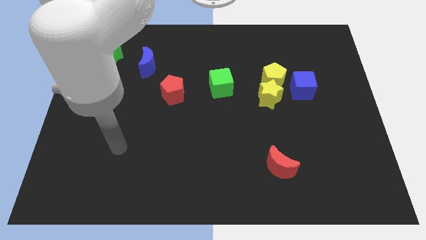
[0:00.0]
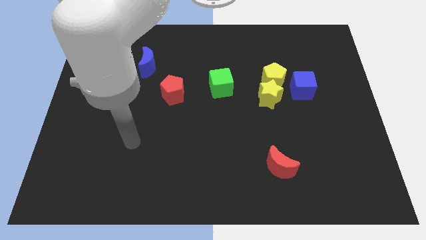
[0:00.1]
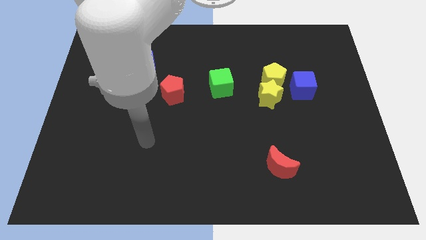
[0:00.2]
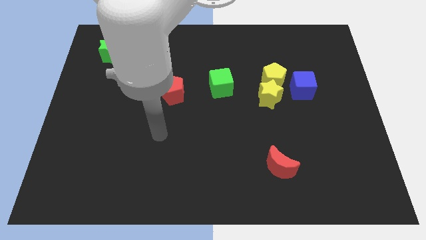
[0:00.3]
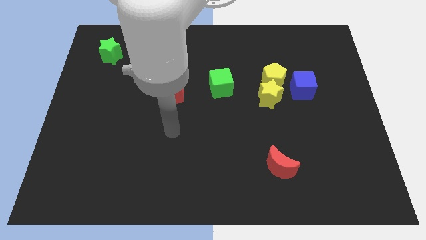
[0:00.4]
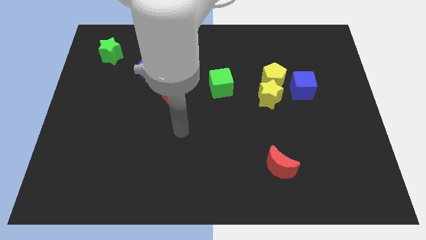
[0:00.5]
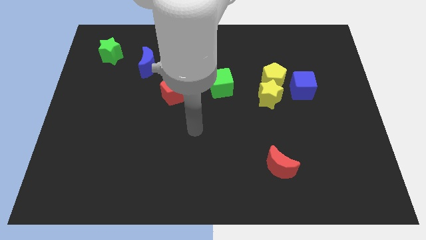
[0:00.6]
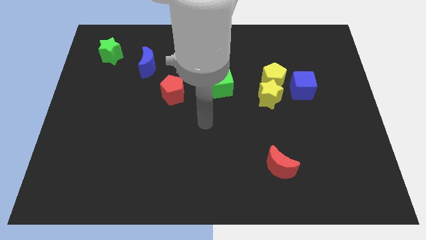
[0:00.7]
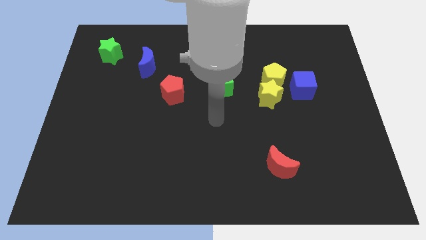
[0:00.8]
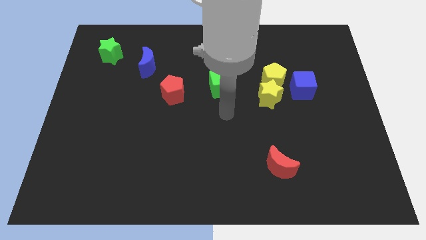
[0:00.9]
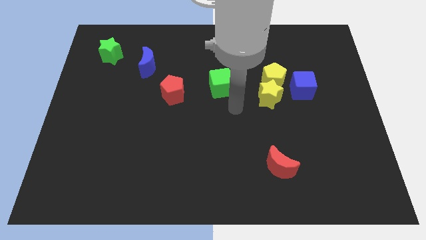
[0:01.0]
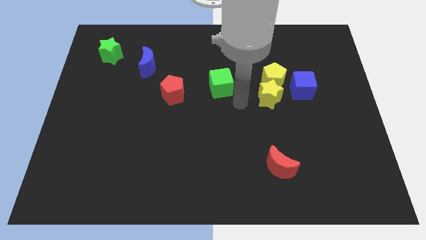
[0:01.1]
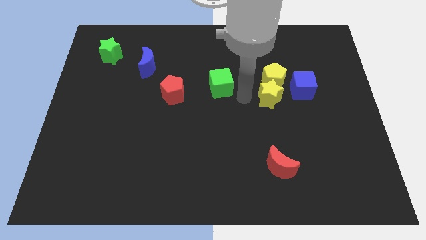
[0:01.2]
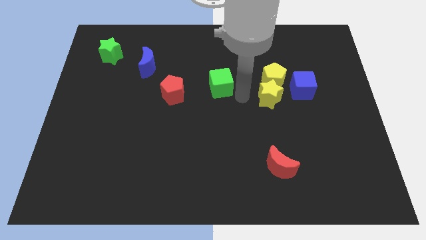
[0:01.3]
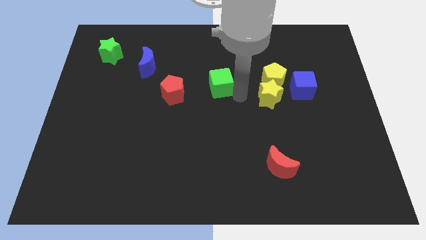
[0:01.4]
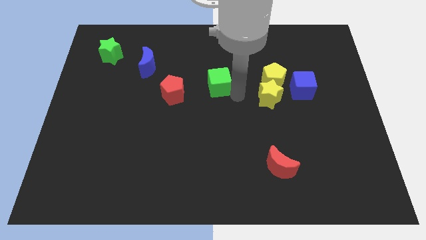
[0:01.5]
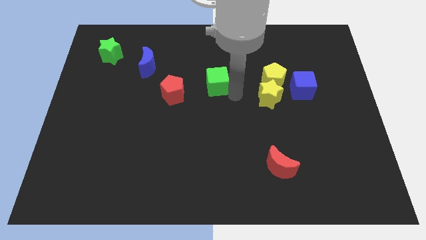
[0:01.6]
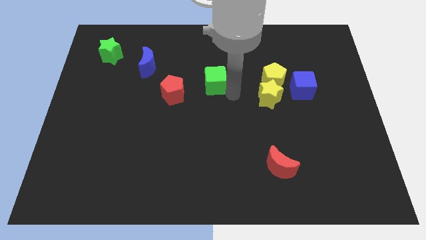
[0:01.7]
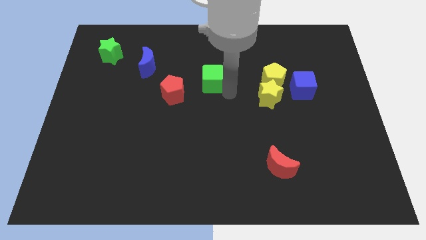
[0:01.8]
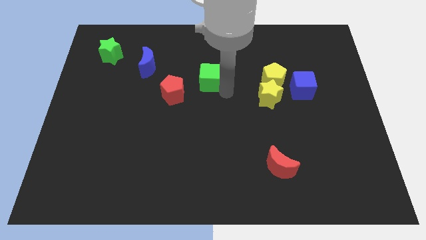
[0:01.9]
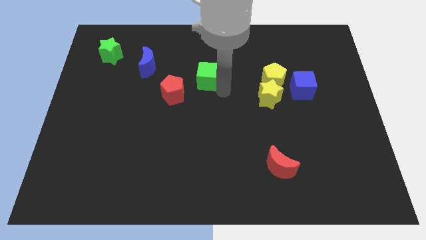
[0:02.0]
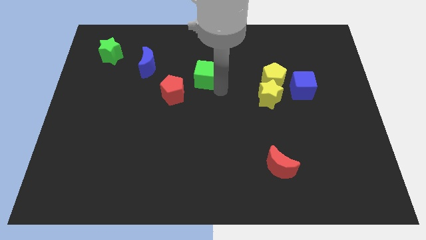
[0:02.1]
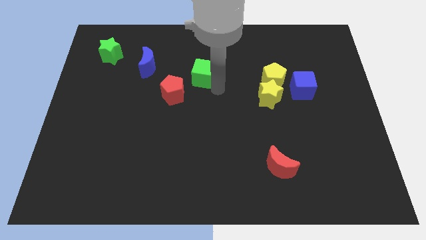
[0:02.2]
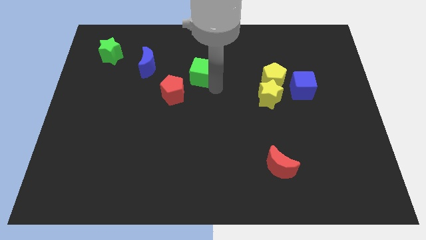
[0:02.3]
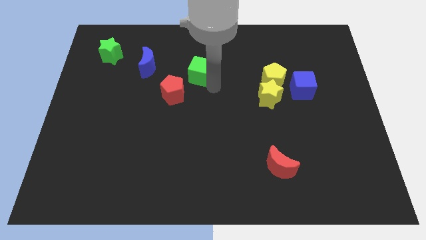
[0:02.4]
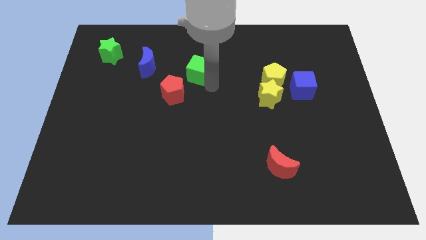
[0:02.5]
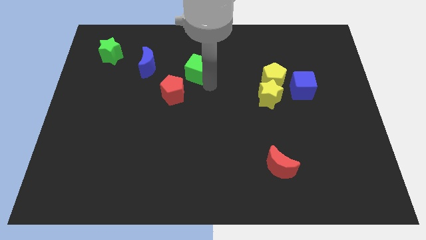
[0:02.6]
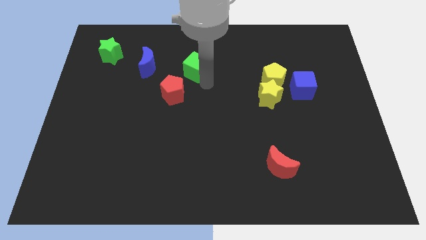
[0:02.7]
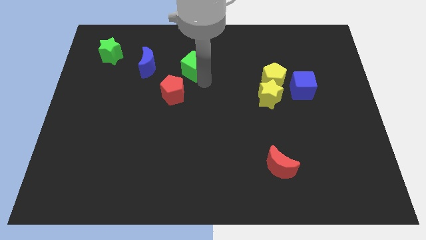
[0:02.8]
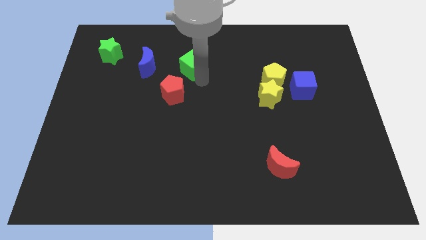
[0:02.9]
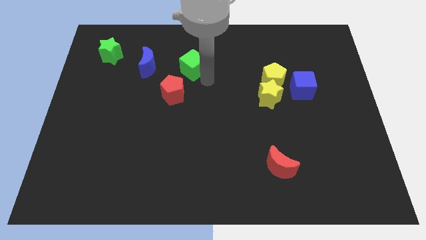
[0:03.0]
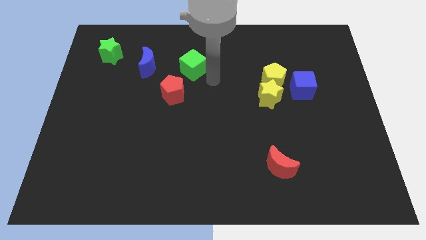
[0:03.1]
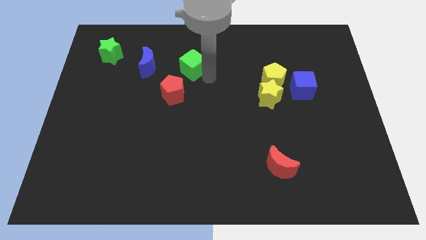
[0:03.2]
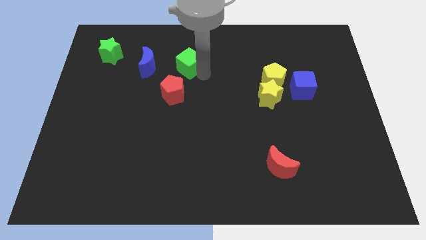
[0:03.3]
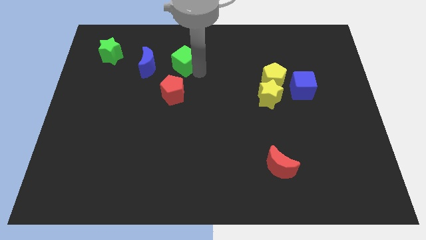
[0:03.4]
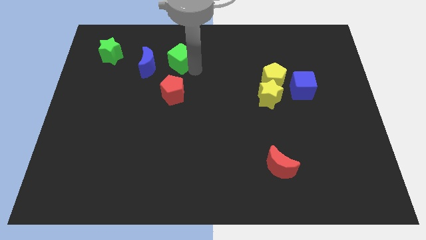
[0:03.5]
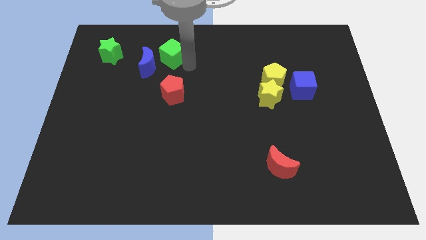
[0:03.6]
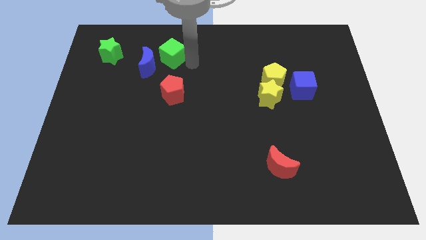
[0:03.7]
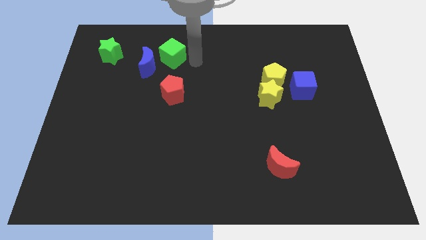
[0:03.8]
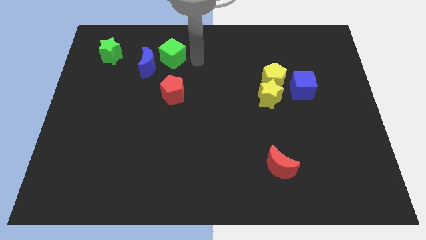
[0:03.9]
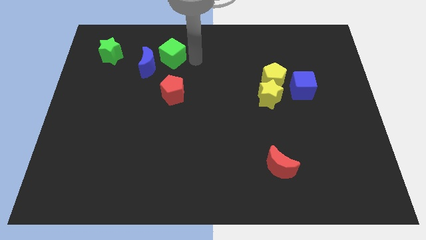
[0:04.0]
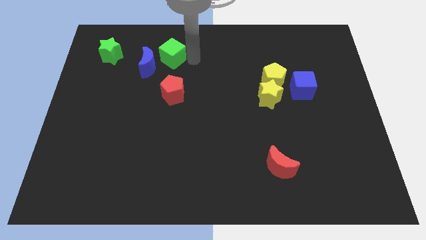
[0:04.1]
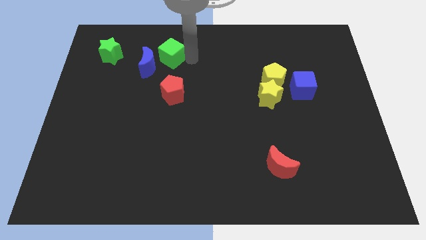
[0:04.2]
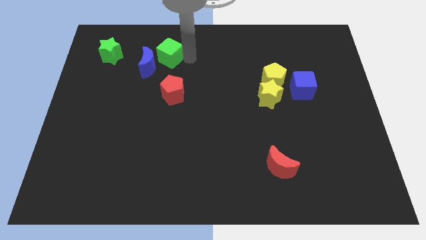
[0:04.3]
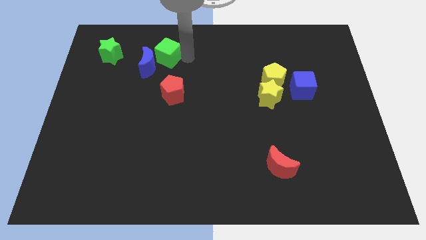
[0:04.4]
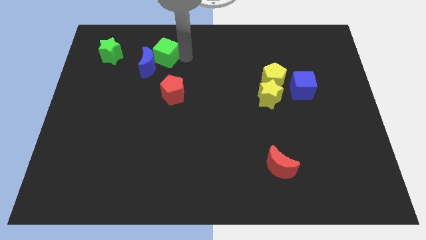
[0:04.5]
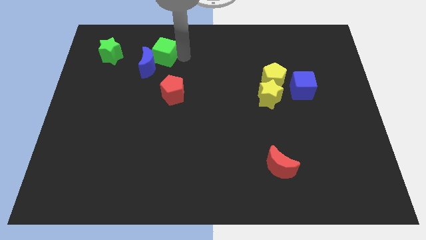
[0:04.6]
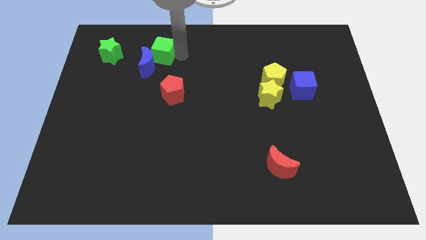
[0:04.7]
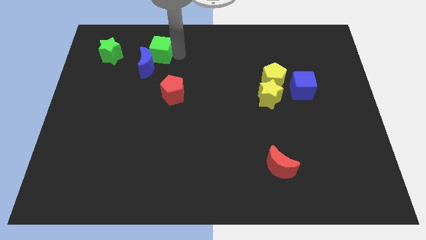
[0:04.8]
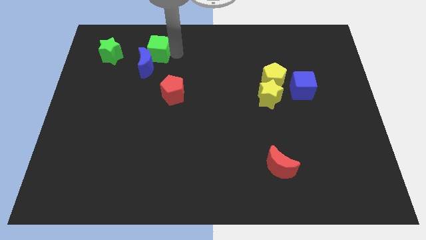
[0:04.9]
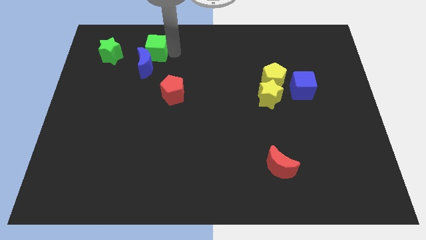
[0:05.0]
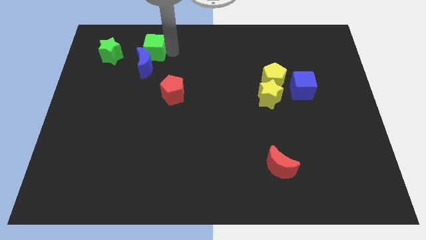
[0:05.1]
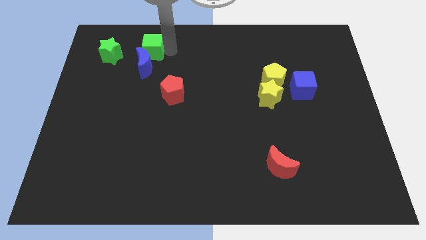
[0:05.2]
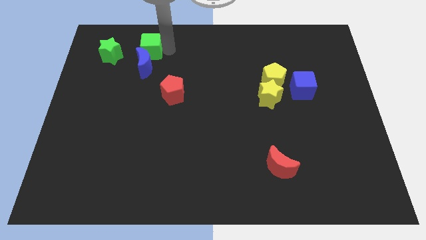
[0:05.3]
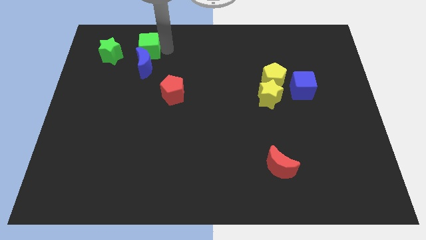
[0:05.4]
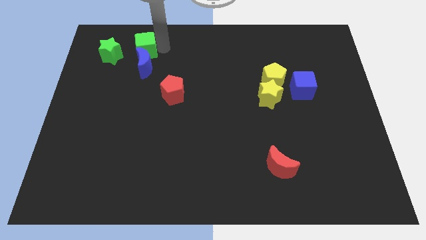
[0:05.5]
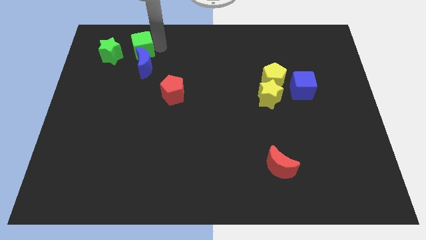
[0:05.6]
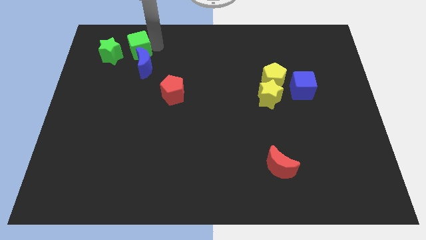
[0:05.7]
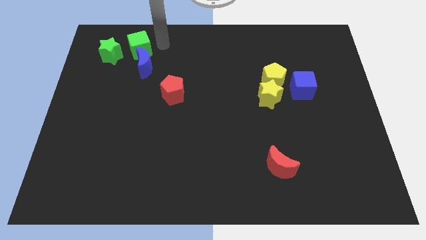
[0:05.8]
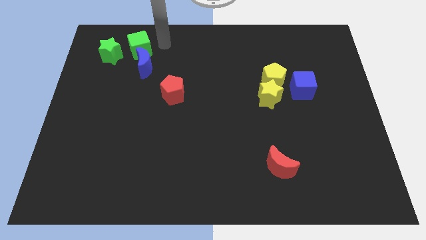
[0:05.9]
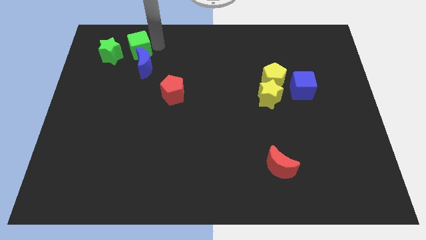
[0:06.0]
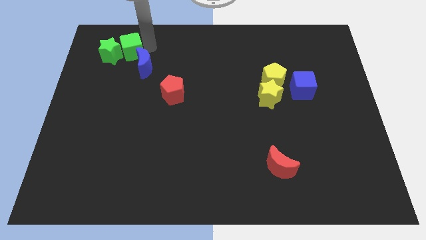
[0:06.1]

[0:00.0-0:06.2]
push the green cube next to the green star

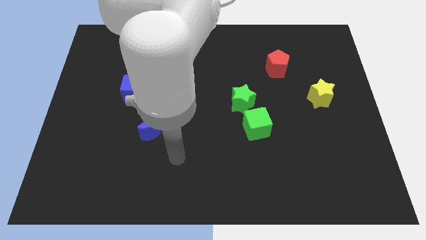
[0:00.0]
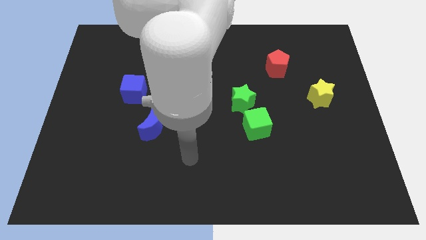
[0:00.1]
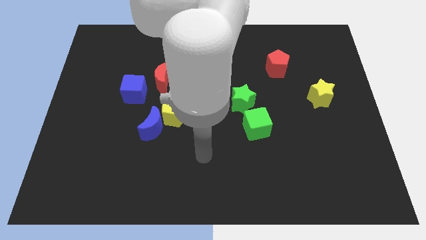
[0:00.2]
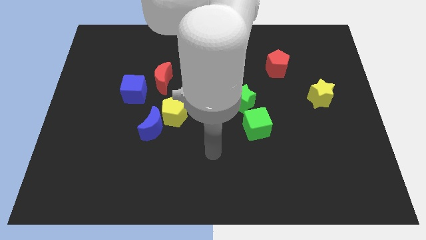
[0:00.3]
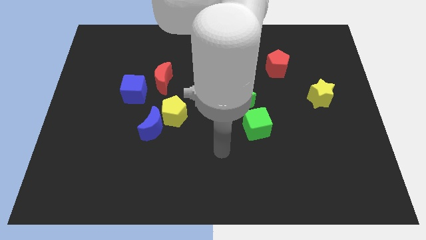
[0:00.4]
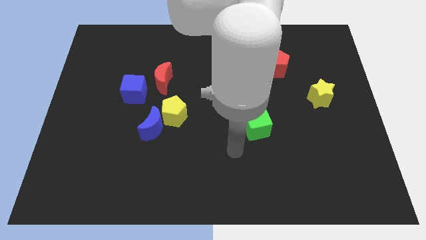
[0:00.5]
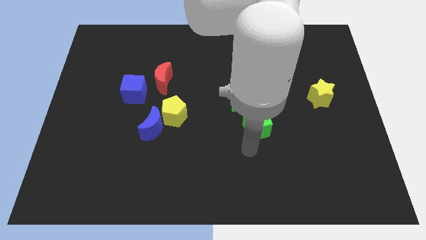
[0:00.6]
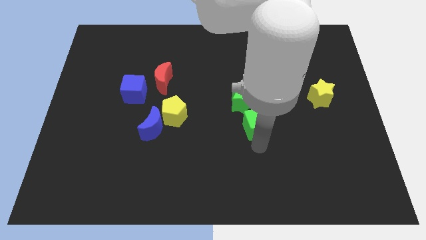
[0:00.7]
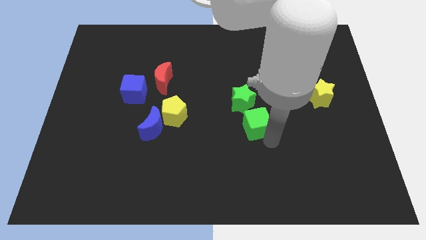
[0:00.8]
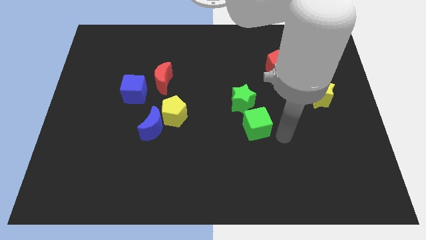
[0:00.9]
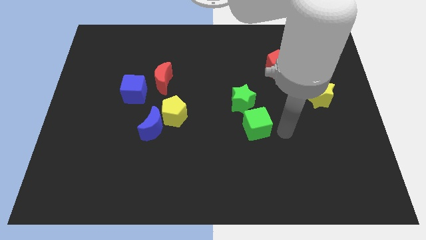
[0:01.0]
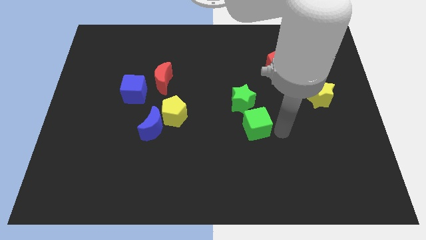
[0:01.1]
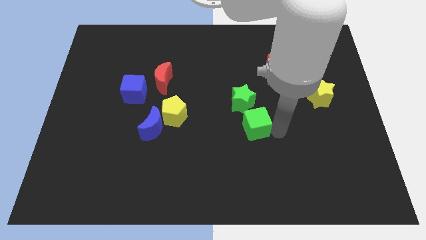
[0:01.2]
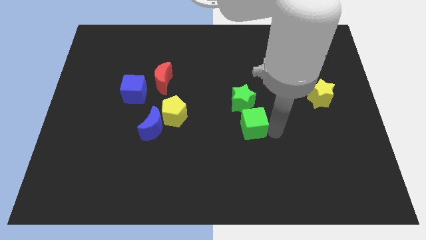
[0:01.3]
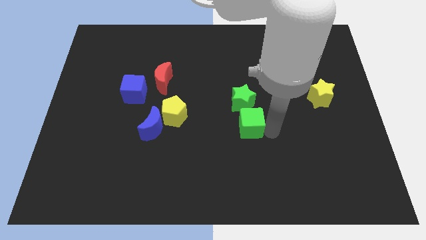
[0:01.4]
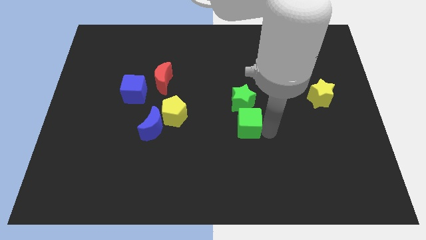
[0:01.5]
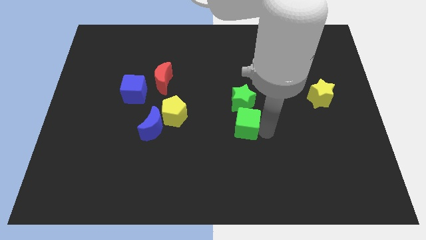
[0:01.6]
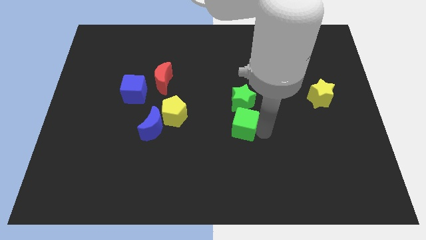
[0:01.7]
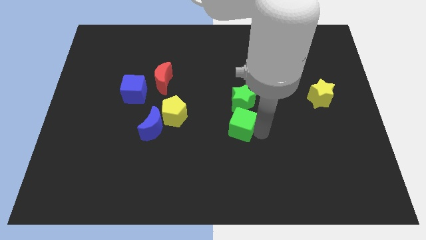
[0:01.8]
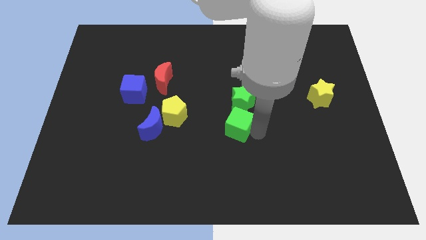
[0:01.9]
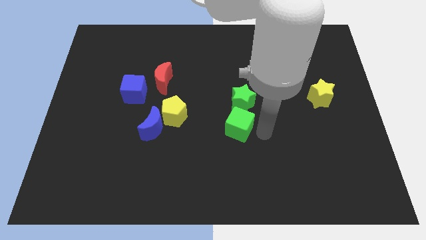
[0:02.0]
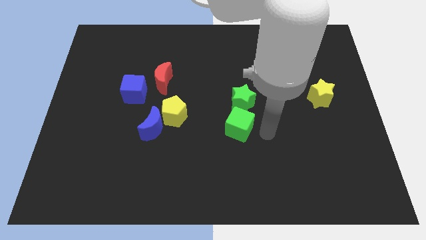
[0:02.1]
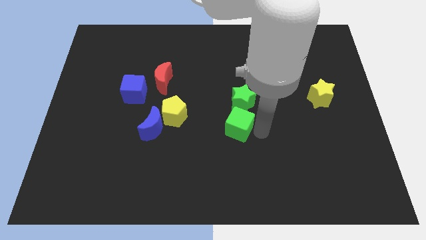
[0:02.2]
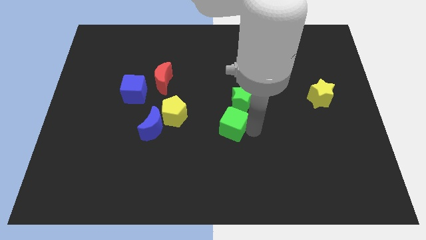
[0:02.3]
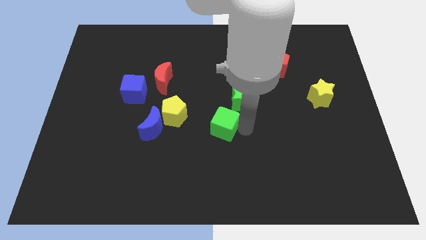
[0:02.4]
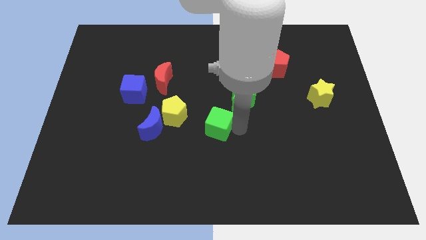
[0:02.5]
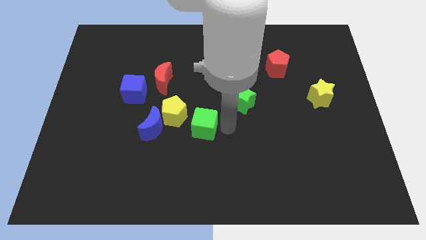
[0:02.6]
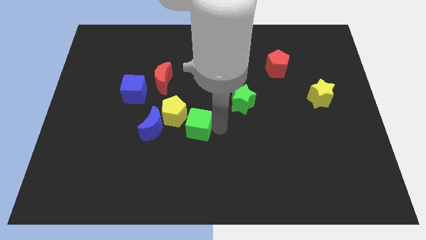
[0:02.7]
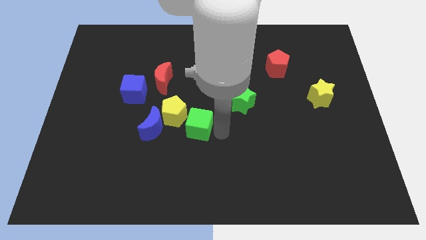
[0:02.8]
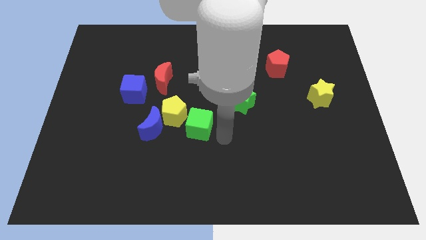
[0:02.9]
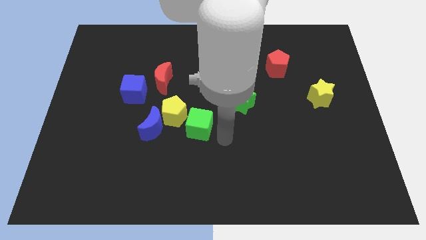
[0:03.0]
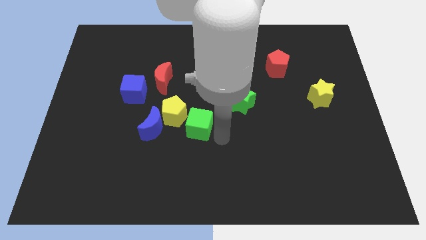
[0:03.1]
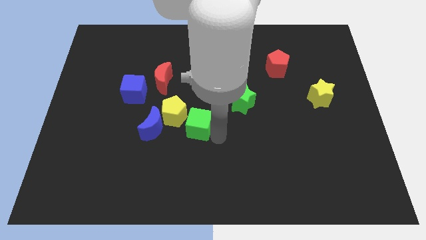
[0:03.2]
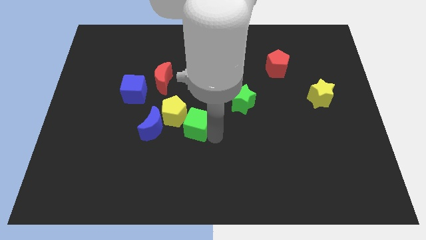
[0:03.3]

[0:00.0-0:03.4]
put the green cube next to the yellow pentagon
